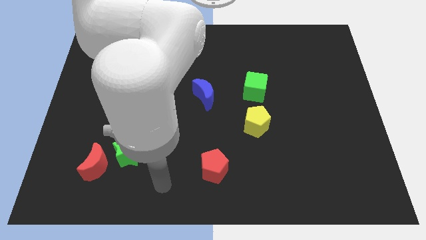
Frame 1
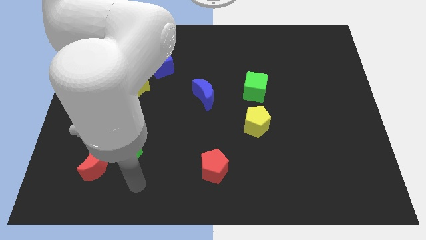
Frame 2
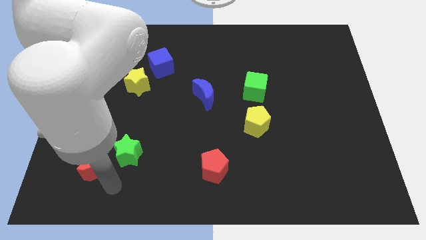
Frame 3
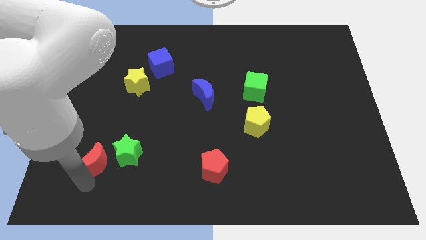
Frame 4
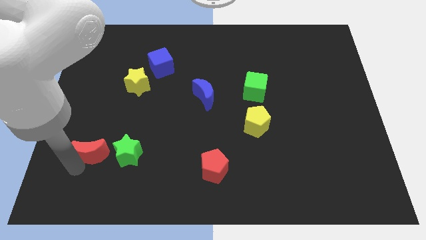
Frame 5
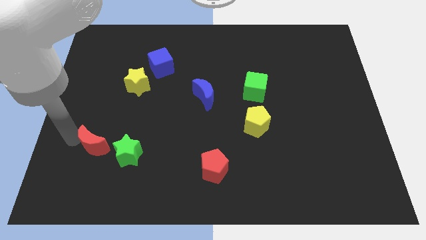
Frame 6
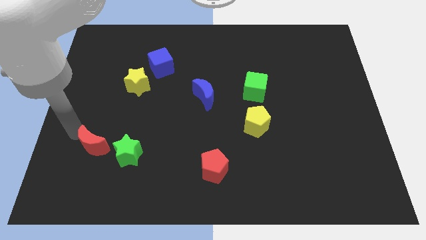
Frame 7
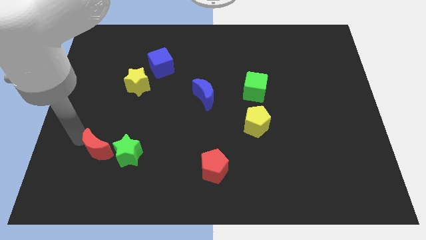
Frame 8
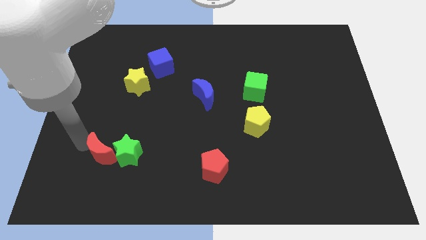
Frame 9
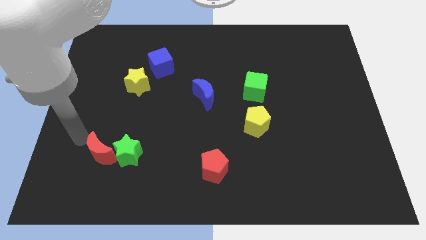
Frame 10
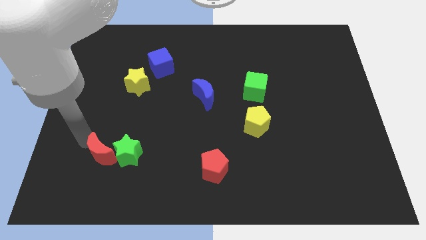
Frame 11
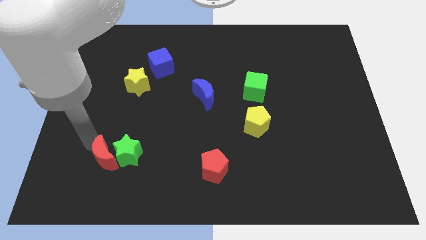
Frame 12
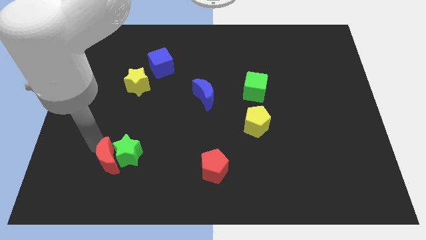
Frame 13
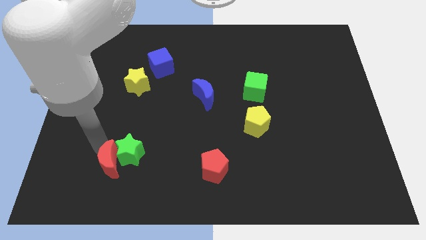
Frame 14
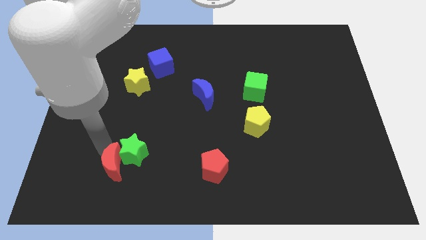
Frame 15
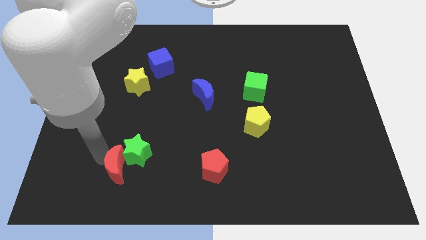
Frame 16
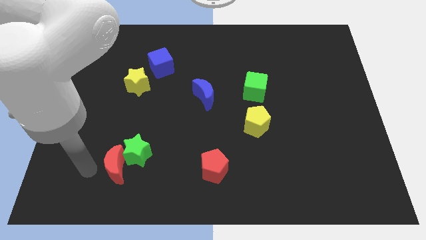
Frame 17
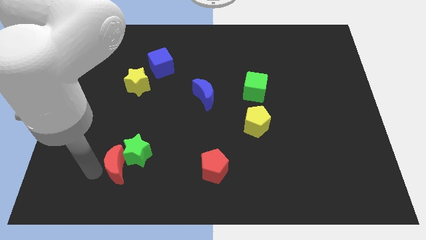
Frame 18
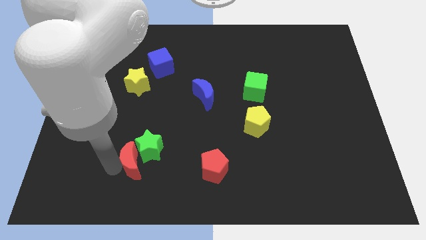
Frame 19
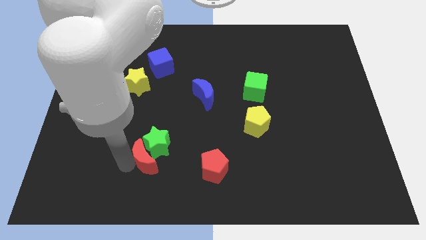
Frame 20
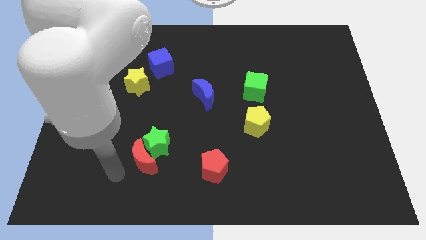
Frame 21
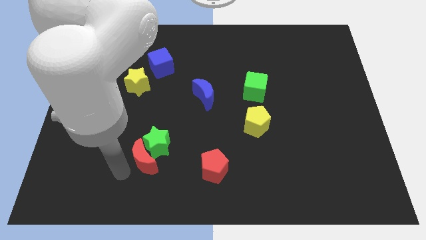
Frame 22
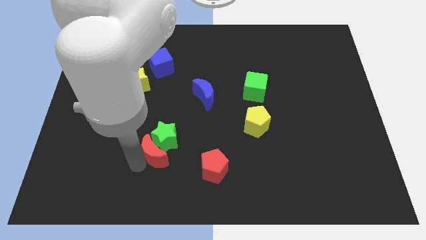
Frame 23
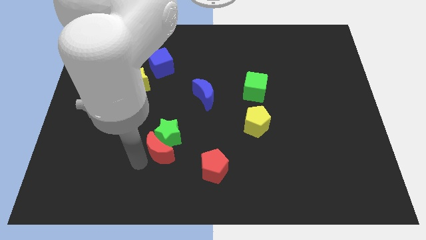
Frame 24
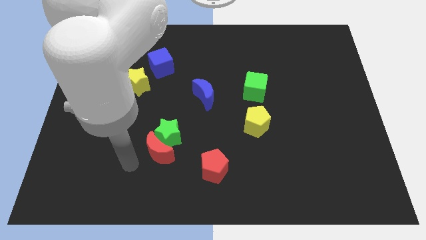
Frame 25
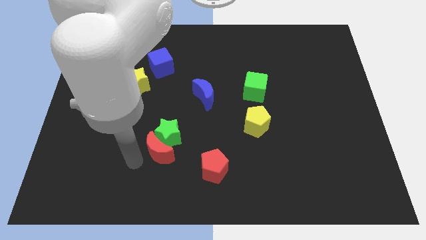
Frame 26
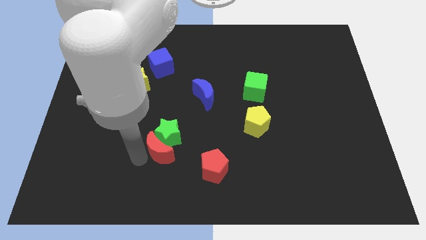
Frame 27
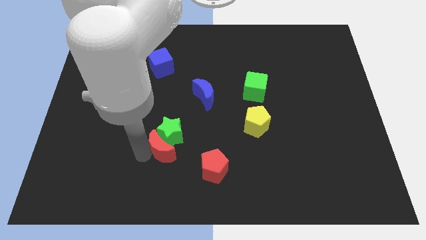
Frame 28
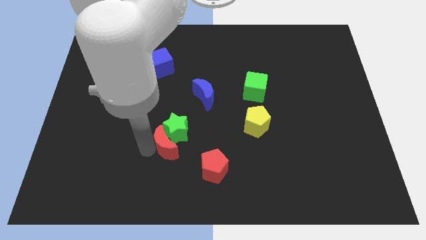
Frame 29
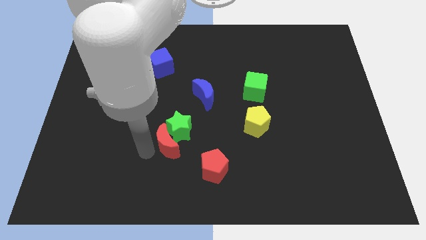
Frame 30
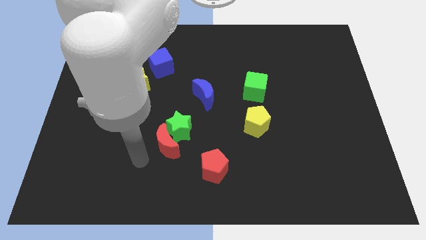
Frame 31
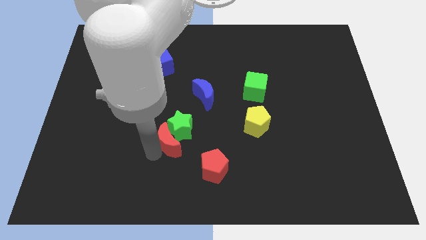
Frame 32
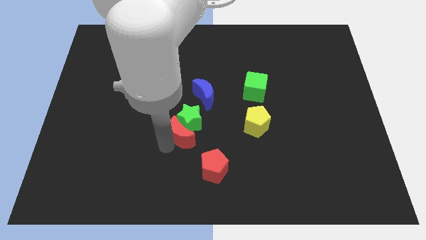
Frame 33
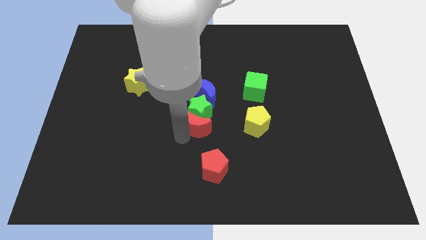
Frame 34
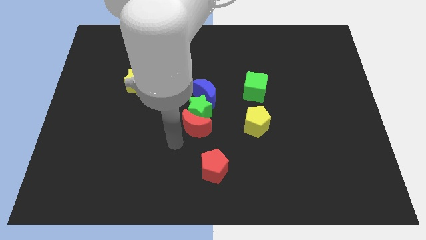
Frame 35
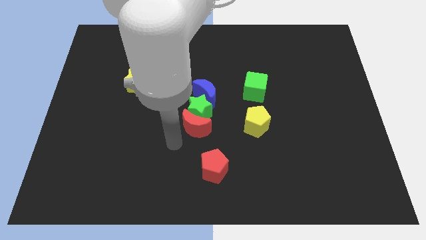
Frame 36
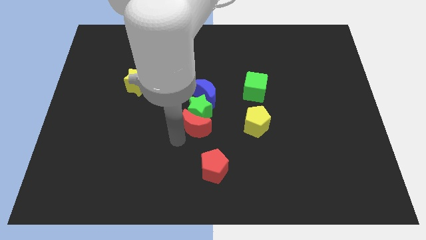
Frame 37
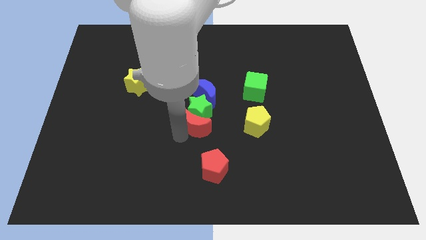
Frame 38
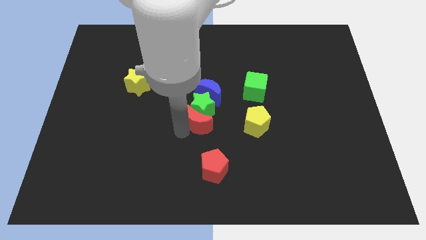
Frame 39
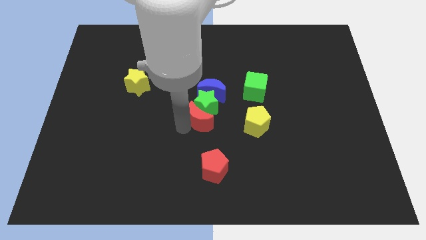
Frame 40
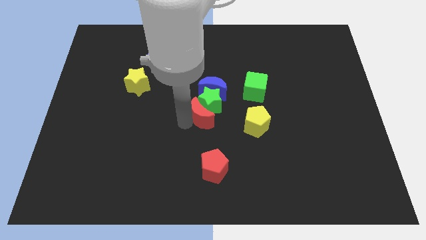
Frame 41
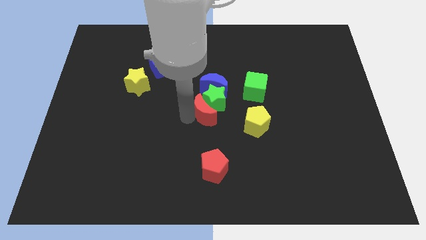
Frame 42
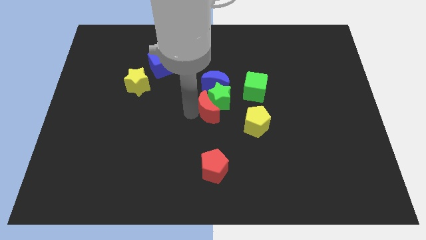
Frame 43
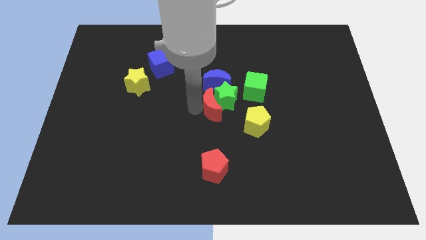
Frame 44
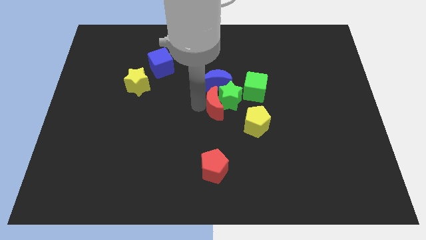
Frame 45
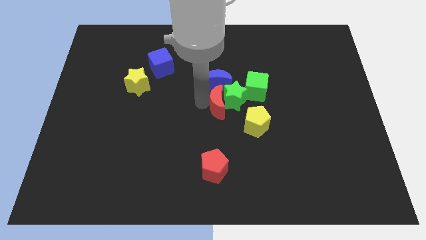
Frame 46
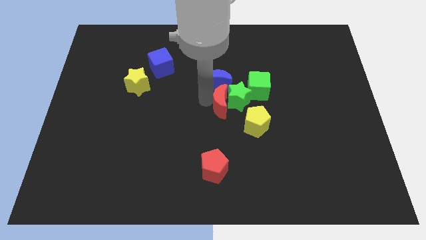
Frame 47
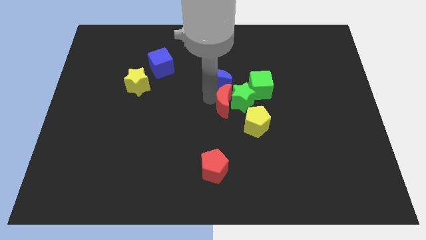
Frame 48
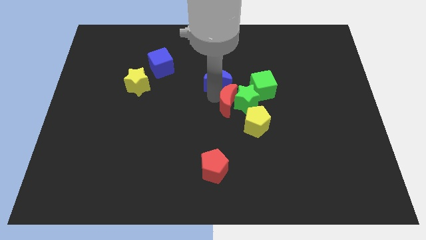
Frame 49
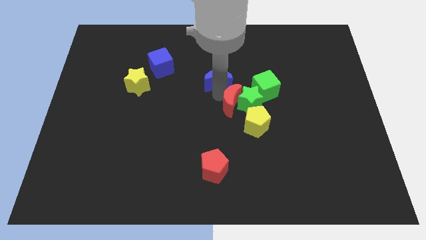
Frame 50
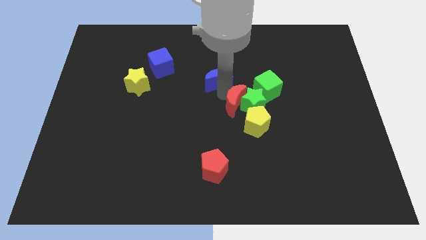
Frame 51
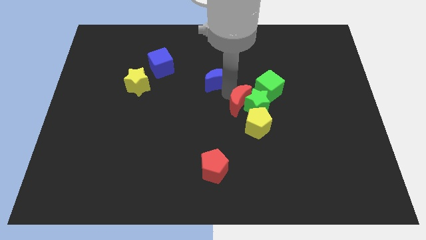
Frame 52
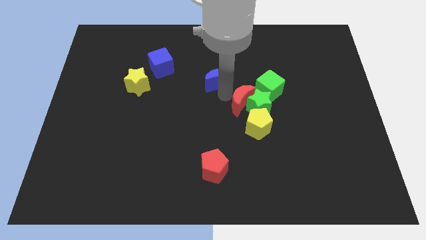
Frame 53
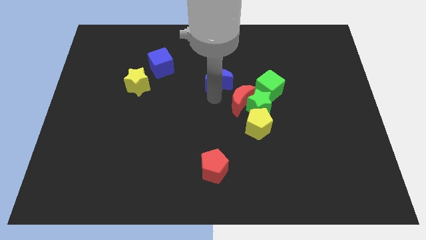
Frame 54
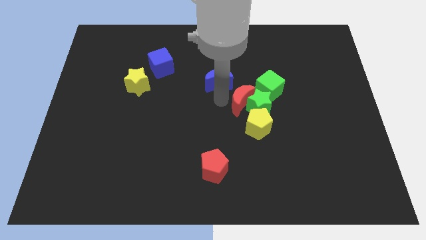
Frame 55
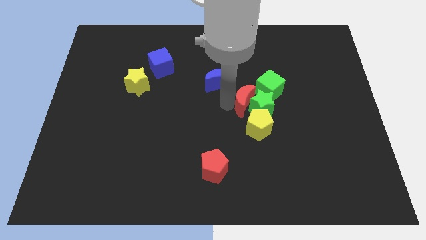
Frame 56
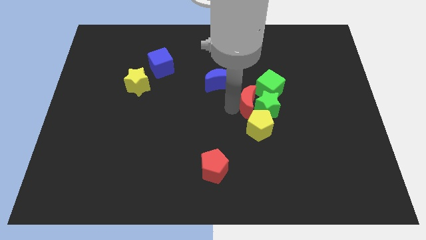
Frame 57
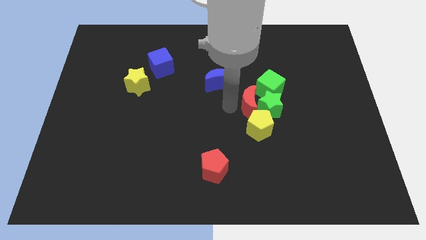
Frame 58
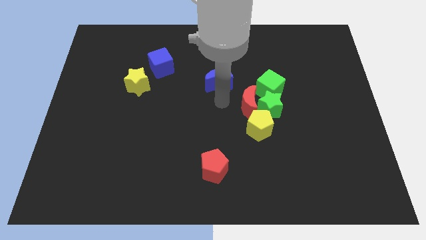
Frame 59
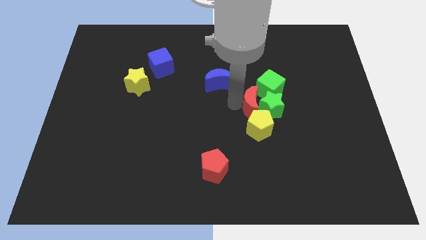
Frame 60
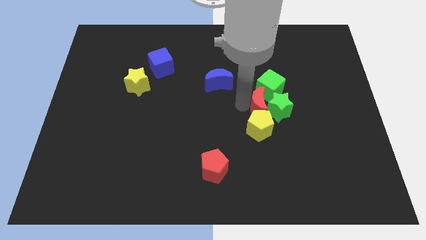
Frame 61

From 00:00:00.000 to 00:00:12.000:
put the red moon diagonally up and to the right of the yellow pentagon
